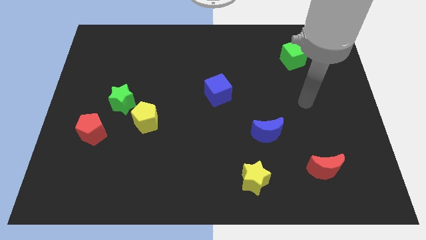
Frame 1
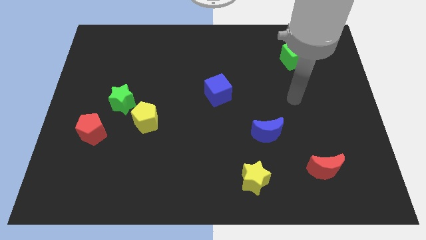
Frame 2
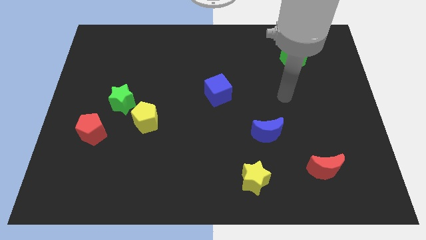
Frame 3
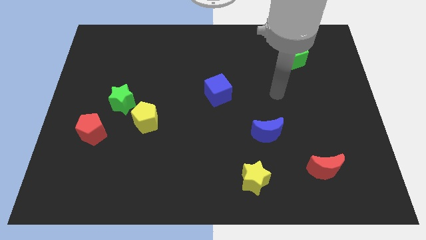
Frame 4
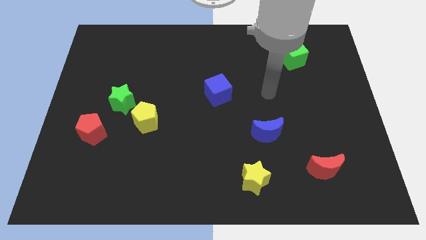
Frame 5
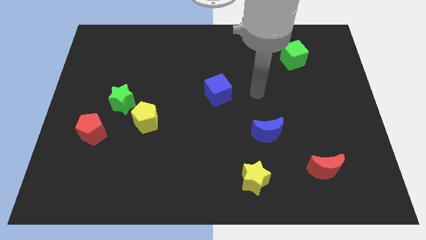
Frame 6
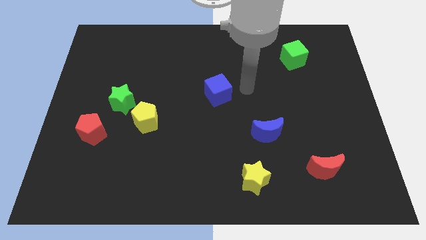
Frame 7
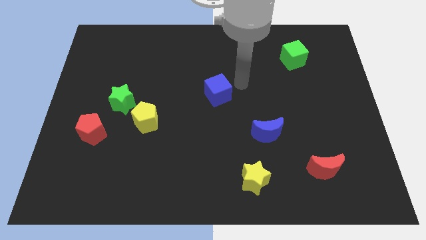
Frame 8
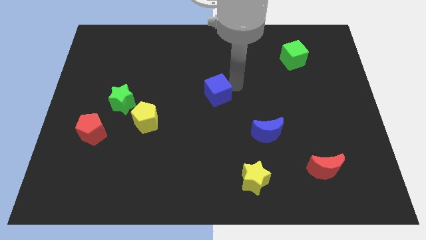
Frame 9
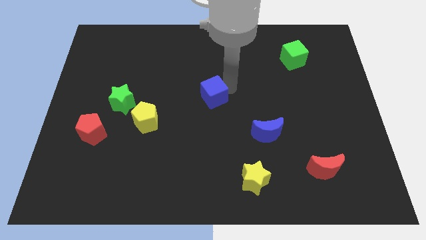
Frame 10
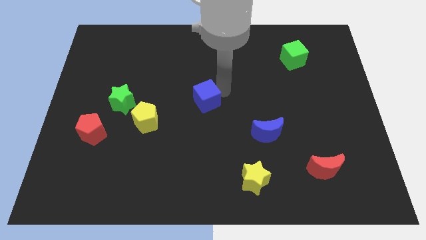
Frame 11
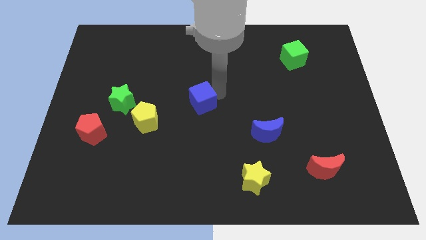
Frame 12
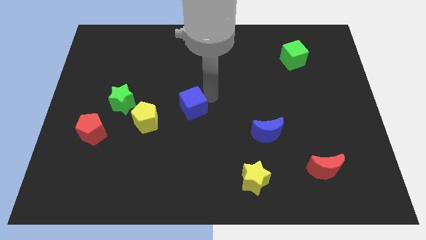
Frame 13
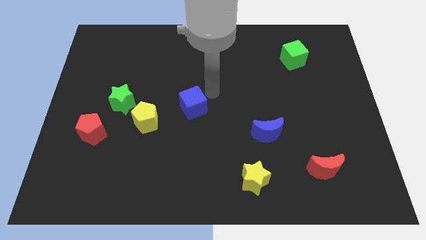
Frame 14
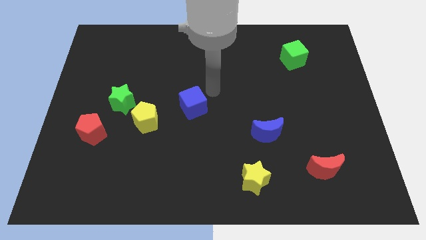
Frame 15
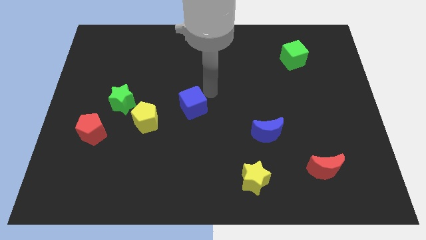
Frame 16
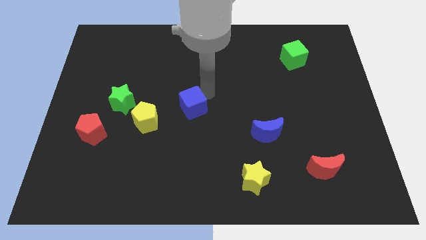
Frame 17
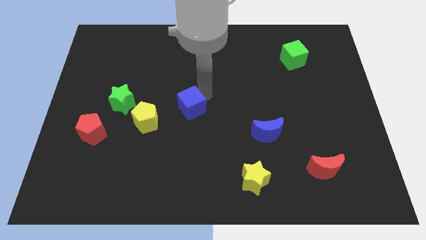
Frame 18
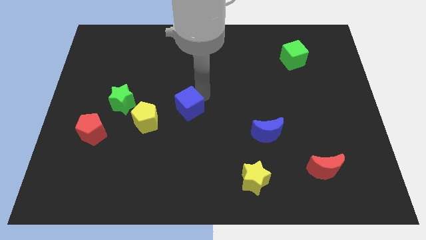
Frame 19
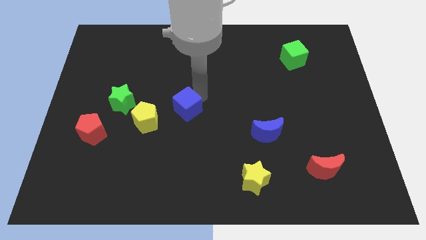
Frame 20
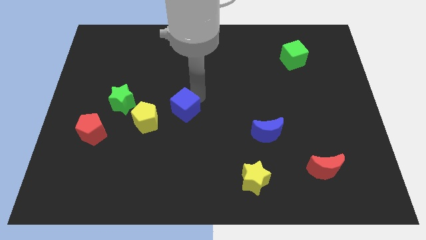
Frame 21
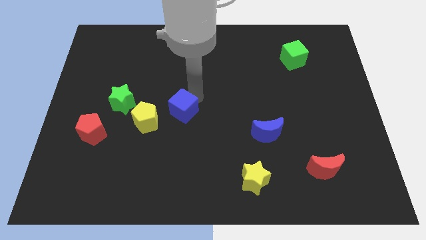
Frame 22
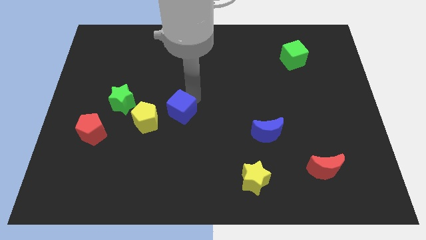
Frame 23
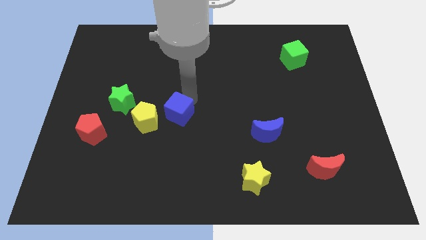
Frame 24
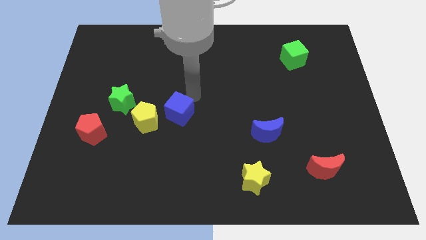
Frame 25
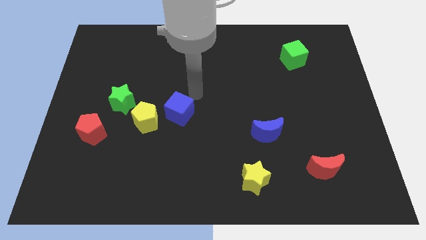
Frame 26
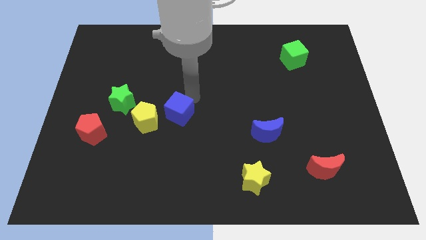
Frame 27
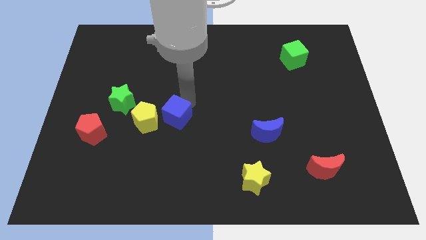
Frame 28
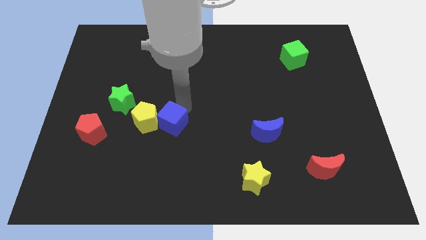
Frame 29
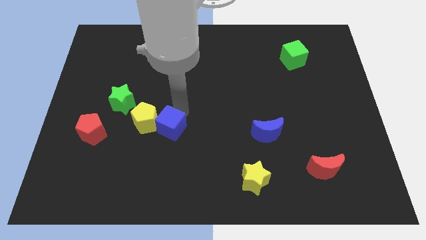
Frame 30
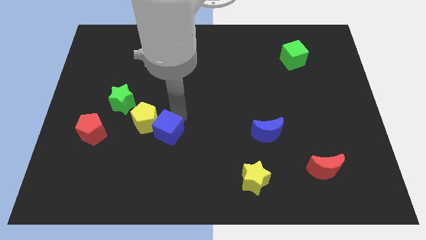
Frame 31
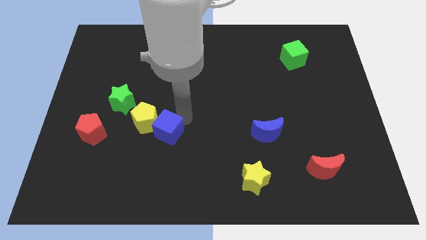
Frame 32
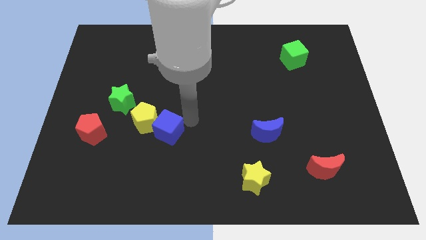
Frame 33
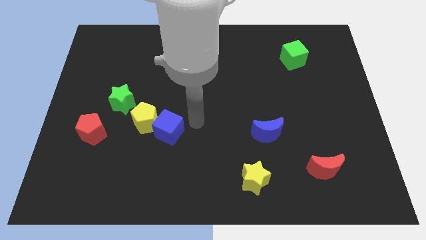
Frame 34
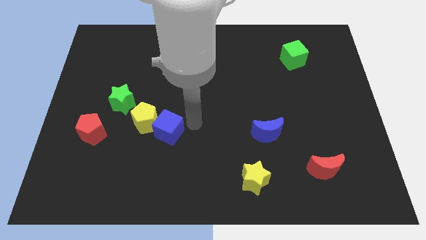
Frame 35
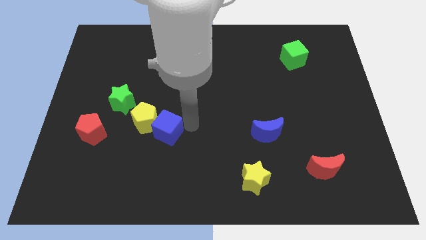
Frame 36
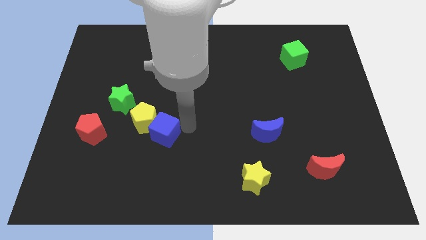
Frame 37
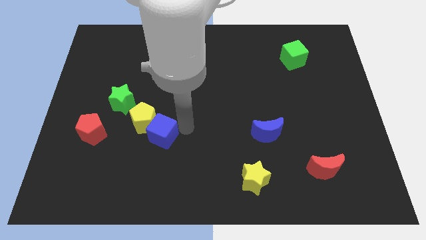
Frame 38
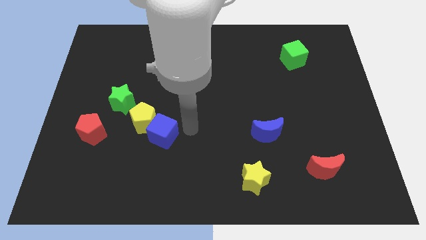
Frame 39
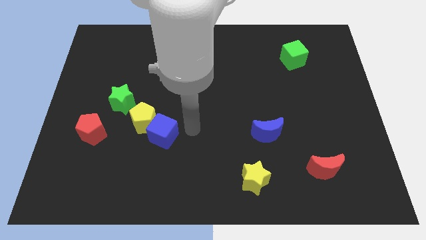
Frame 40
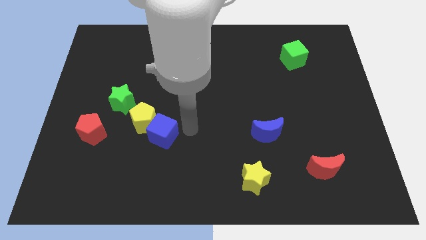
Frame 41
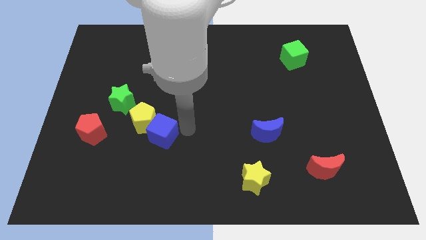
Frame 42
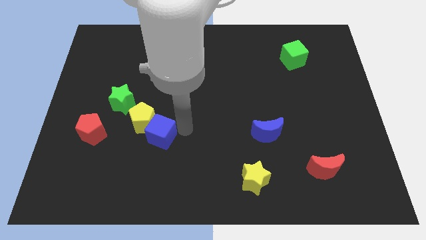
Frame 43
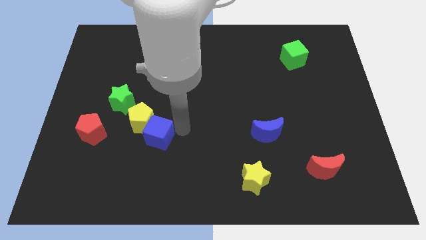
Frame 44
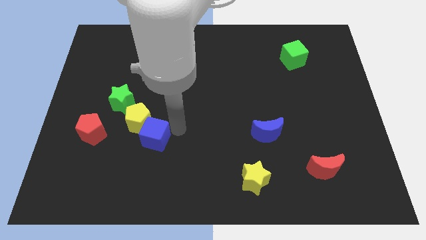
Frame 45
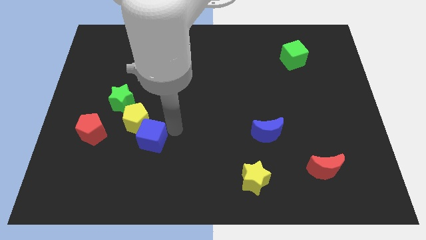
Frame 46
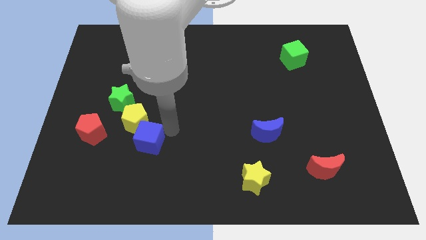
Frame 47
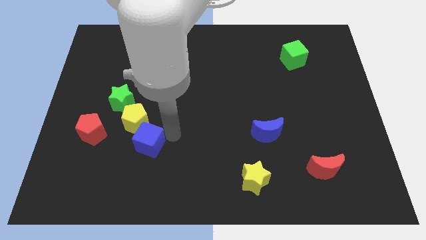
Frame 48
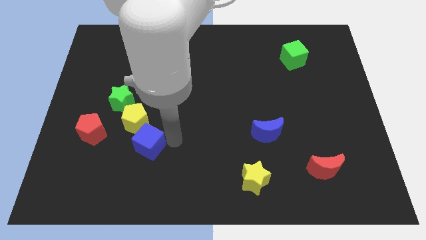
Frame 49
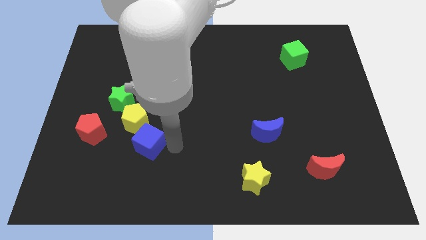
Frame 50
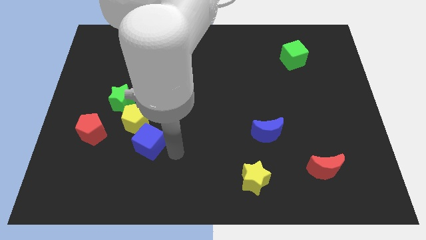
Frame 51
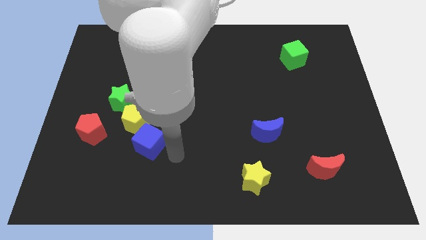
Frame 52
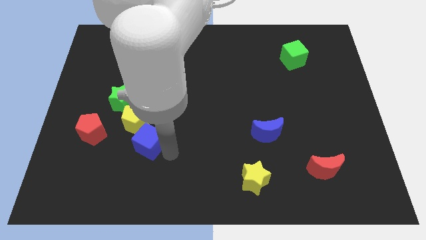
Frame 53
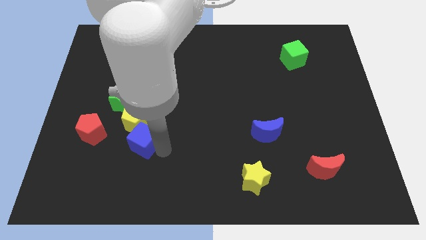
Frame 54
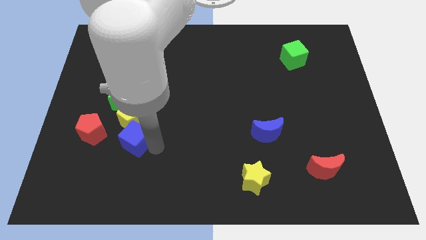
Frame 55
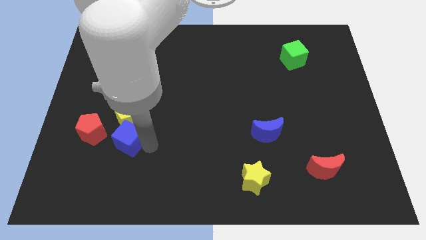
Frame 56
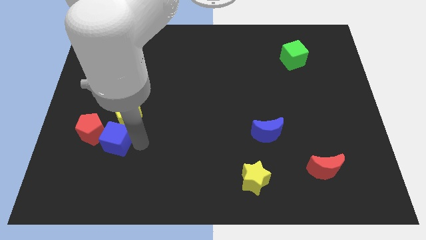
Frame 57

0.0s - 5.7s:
push the blue cube next to the red pentagon

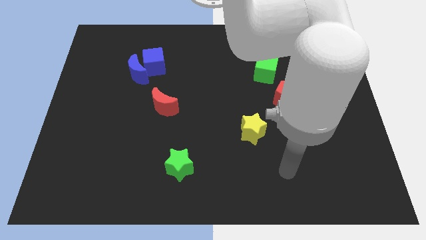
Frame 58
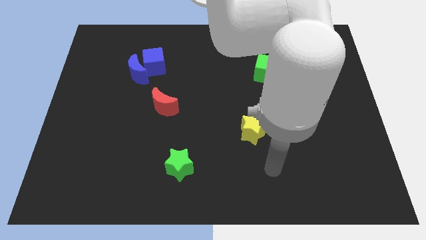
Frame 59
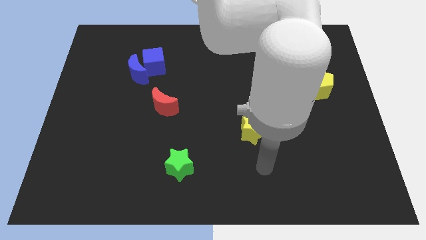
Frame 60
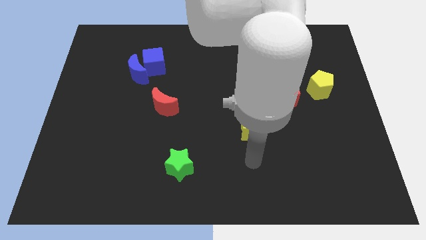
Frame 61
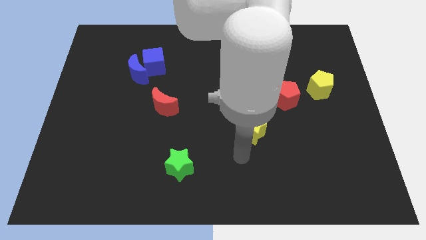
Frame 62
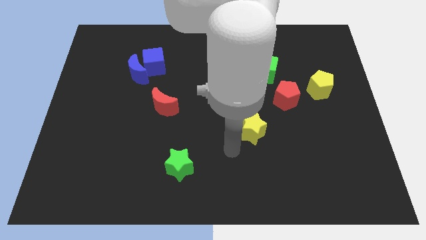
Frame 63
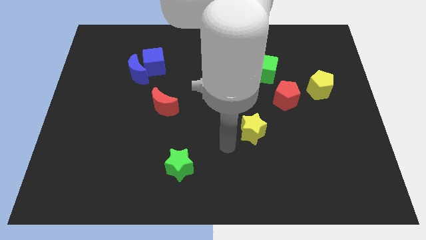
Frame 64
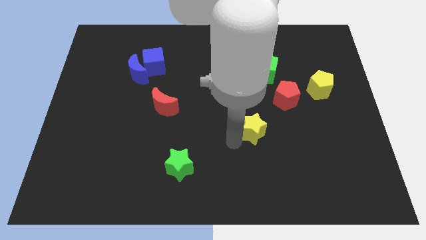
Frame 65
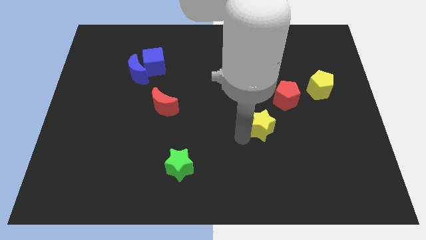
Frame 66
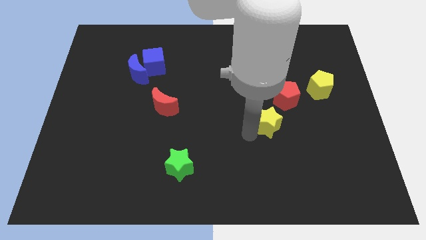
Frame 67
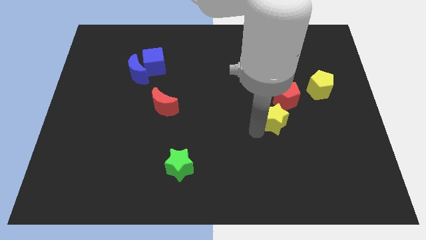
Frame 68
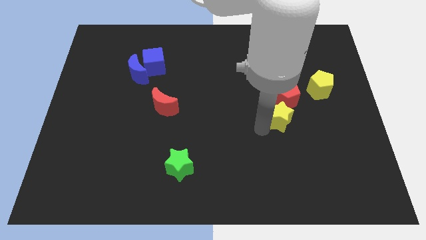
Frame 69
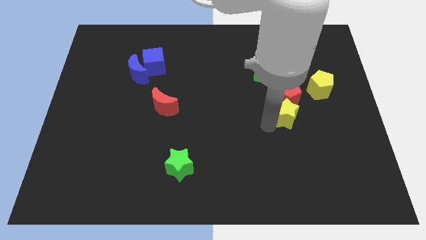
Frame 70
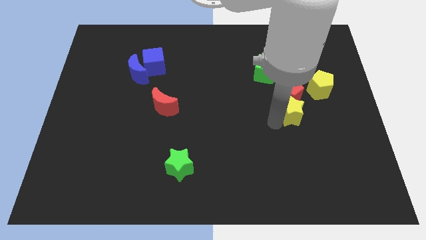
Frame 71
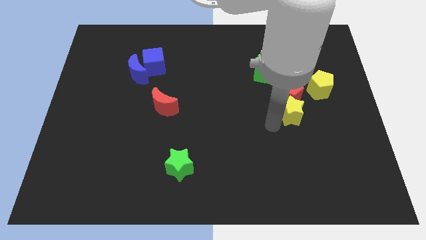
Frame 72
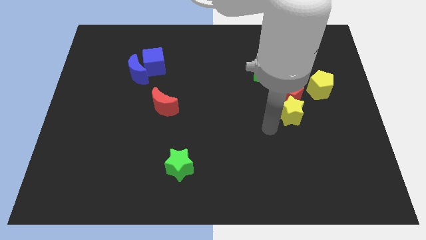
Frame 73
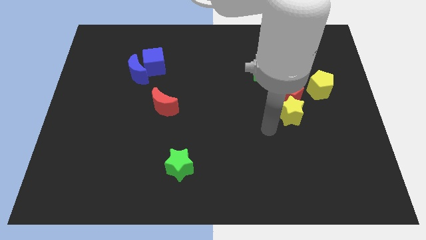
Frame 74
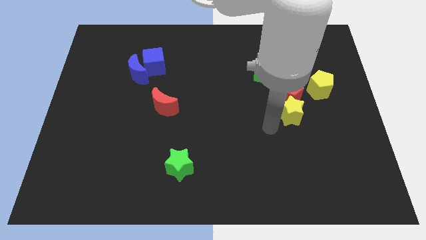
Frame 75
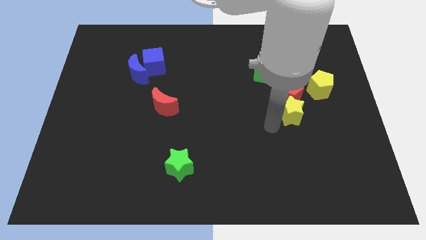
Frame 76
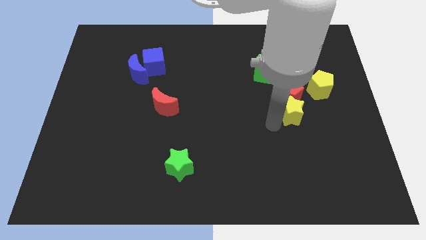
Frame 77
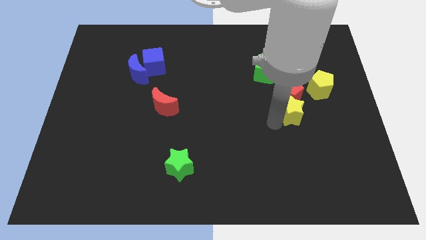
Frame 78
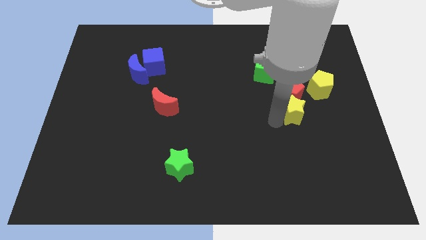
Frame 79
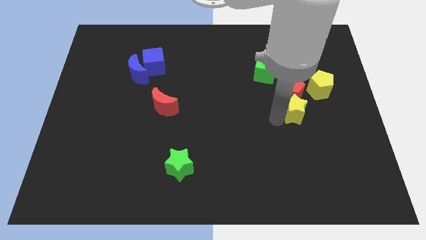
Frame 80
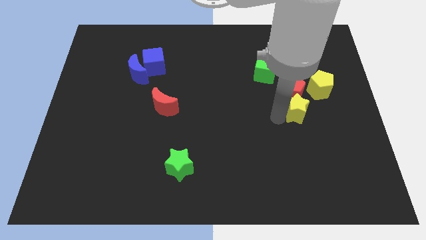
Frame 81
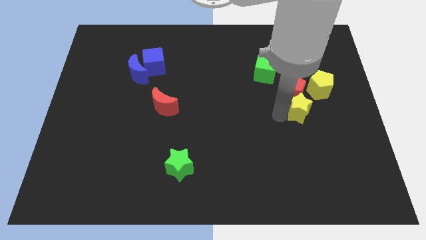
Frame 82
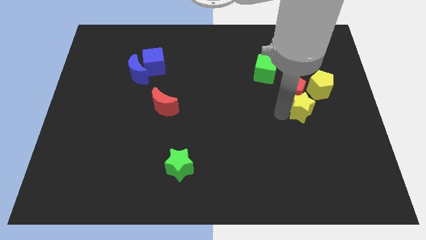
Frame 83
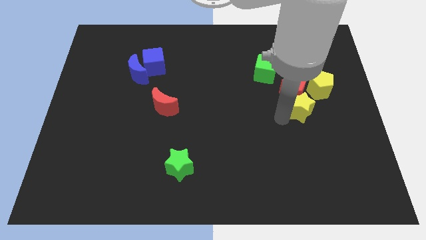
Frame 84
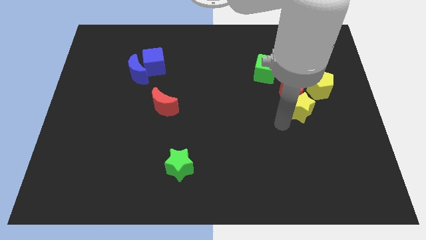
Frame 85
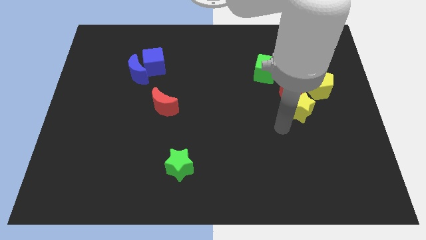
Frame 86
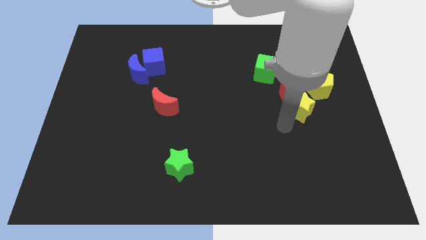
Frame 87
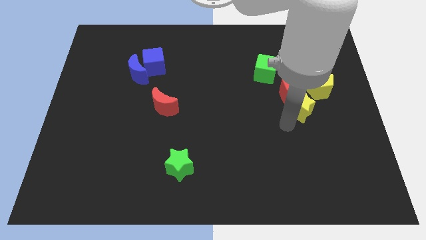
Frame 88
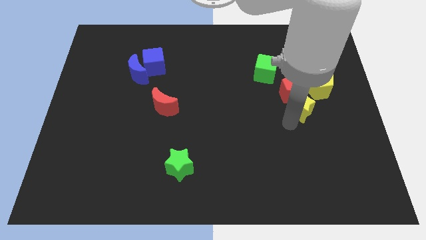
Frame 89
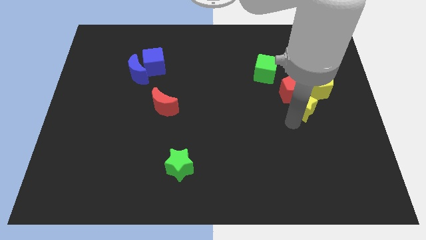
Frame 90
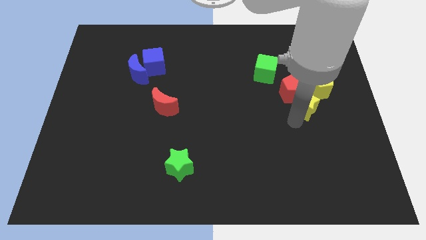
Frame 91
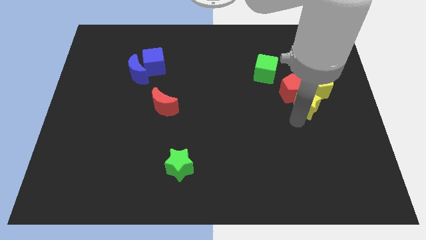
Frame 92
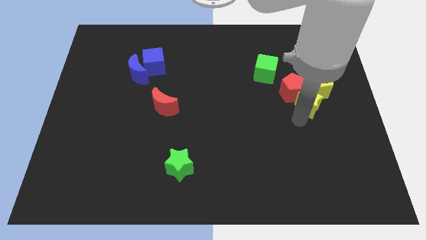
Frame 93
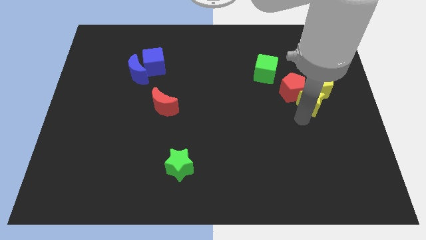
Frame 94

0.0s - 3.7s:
put the yellow star towards the yellow pentagon
